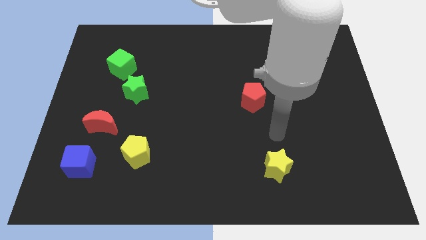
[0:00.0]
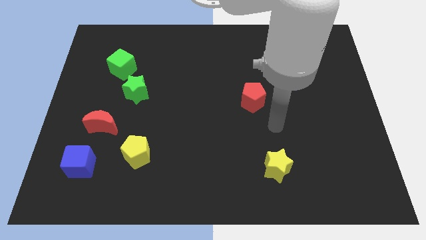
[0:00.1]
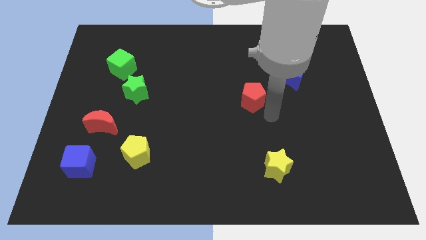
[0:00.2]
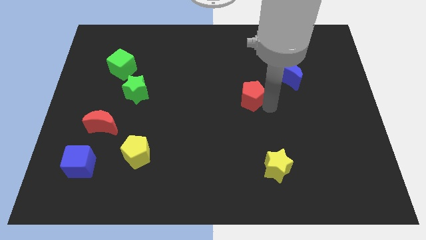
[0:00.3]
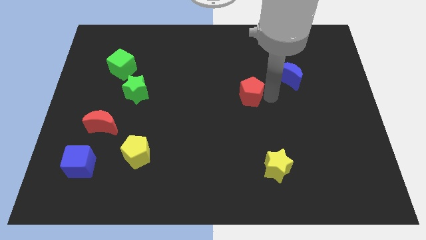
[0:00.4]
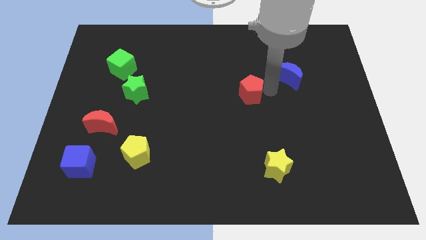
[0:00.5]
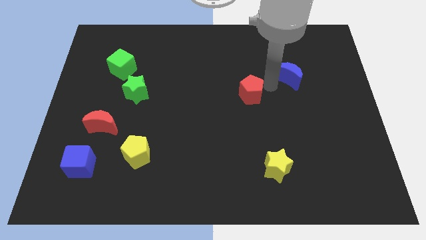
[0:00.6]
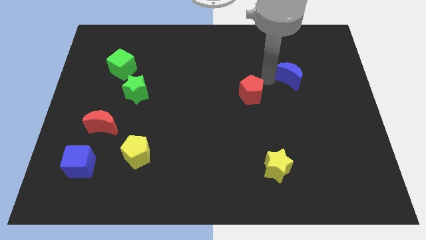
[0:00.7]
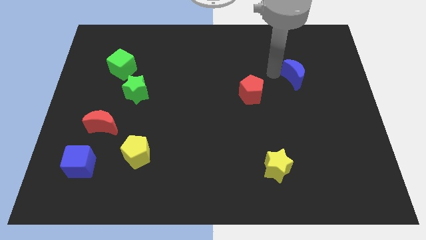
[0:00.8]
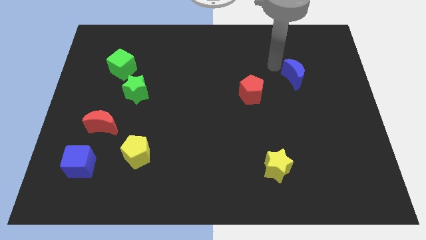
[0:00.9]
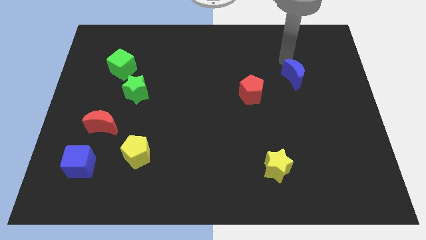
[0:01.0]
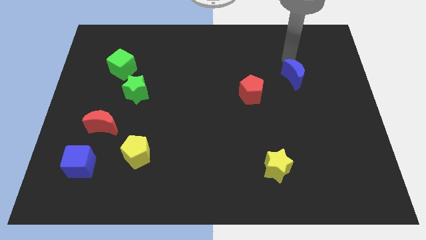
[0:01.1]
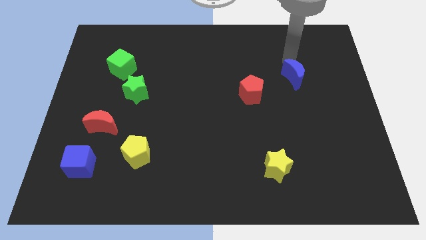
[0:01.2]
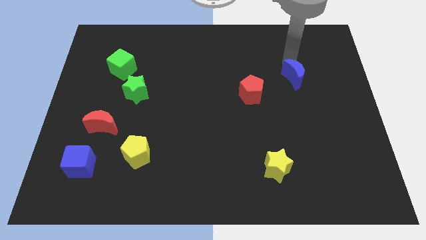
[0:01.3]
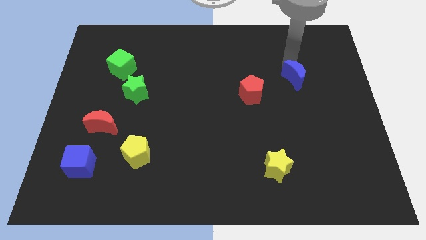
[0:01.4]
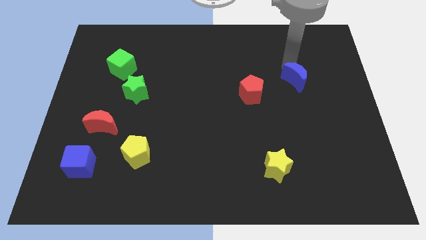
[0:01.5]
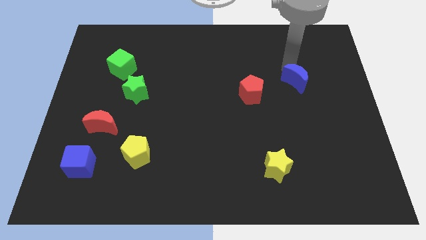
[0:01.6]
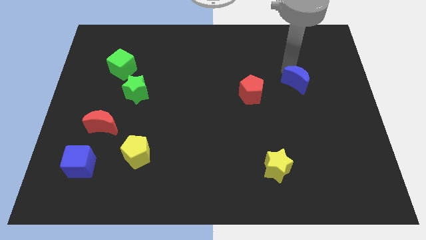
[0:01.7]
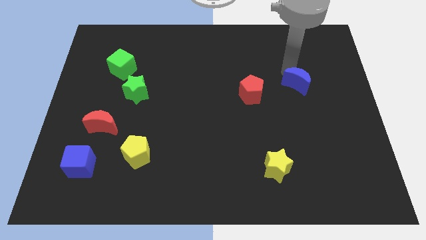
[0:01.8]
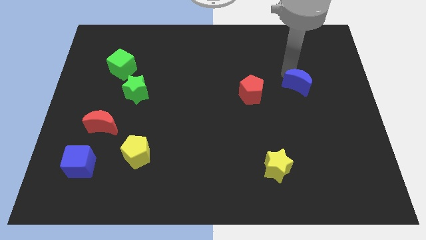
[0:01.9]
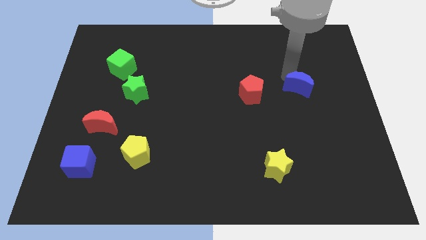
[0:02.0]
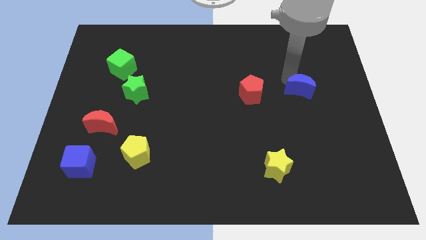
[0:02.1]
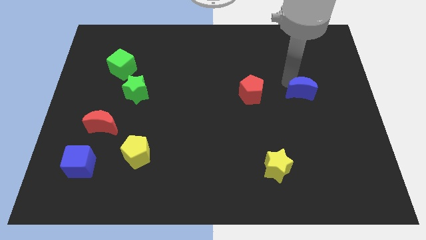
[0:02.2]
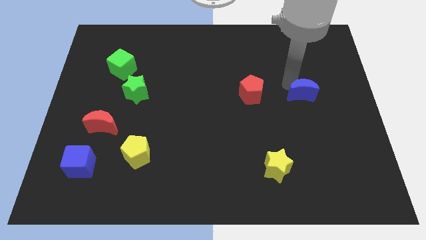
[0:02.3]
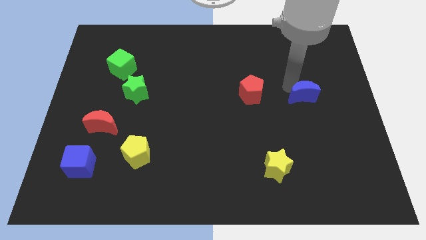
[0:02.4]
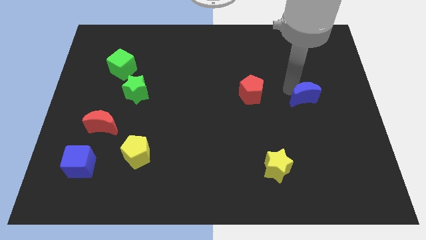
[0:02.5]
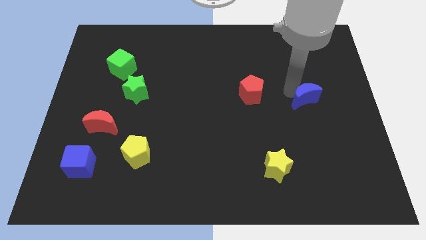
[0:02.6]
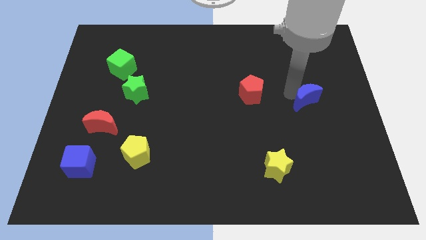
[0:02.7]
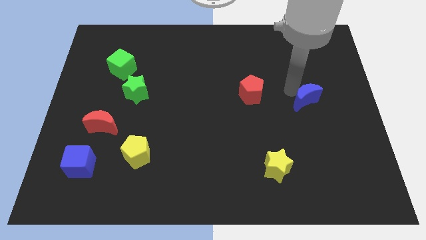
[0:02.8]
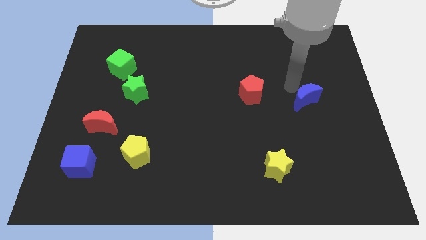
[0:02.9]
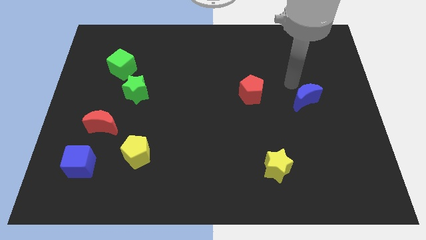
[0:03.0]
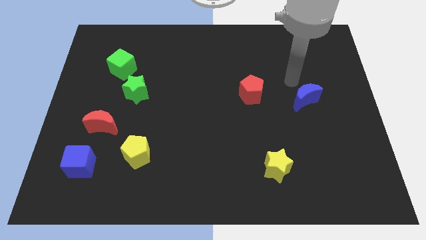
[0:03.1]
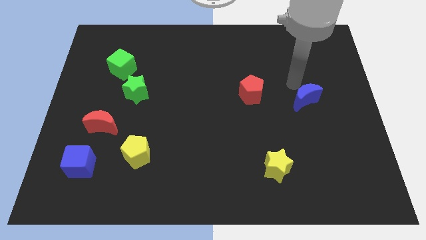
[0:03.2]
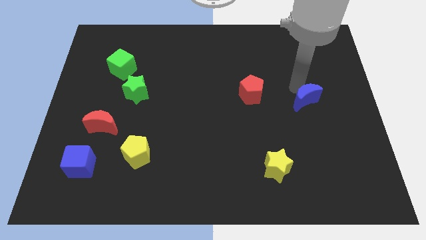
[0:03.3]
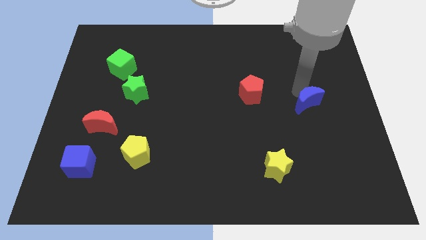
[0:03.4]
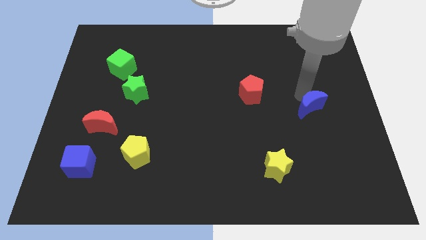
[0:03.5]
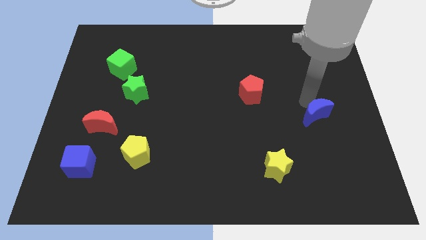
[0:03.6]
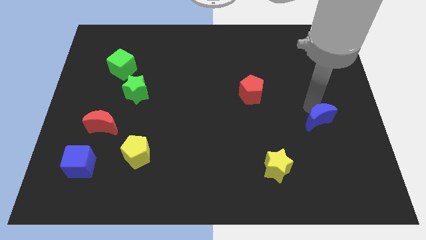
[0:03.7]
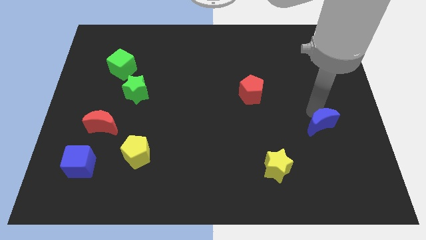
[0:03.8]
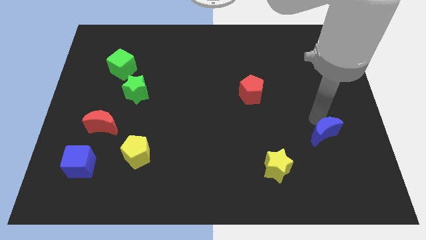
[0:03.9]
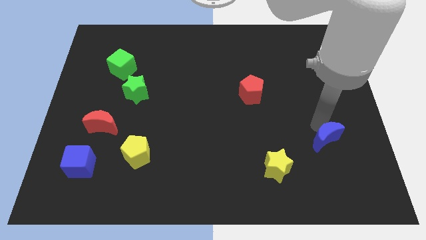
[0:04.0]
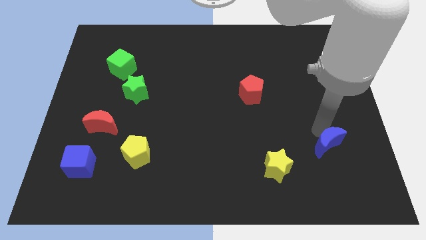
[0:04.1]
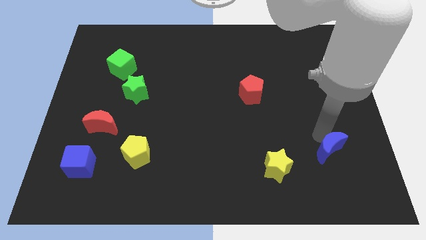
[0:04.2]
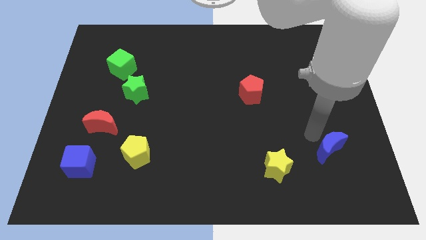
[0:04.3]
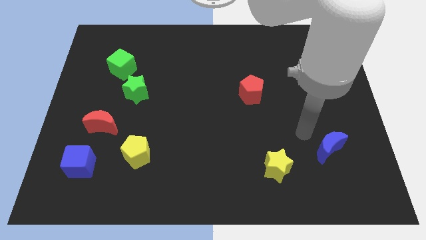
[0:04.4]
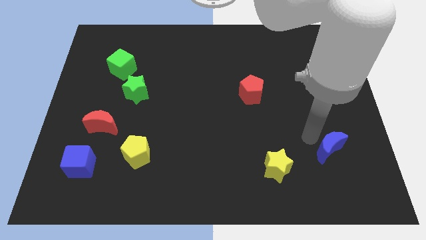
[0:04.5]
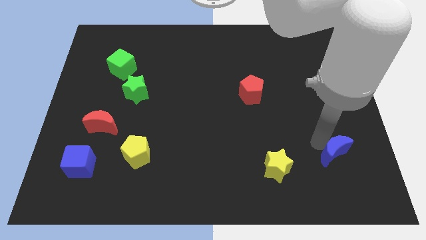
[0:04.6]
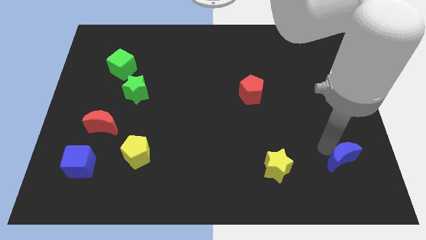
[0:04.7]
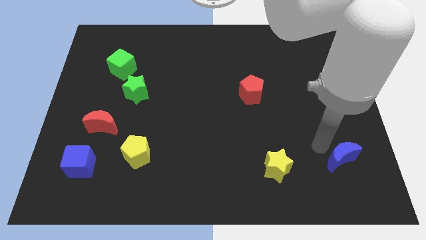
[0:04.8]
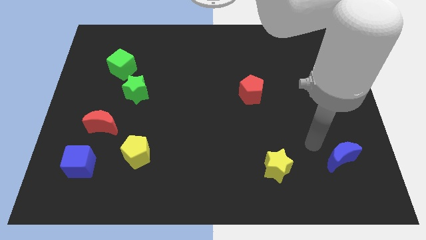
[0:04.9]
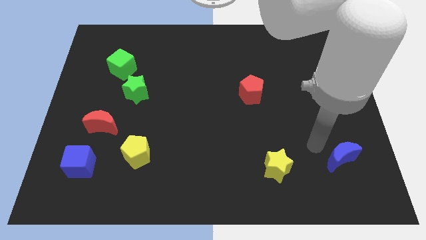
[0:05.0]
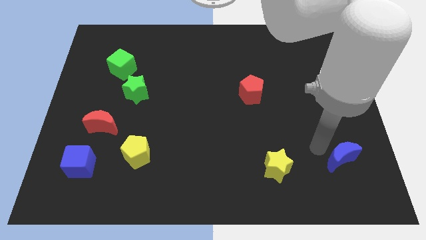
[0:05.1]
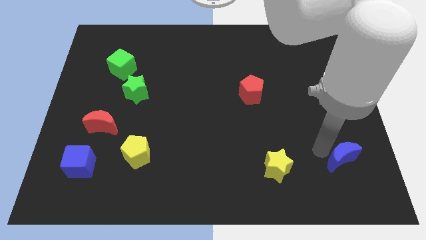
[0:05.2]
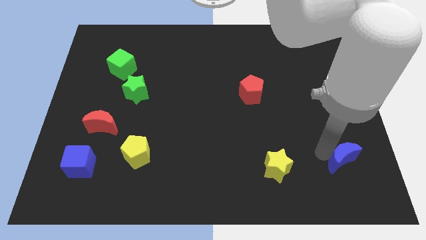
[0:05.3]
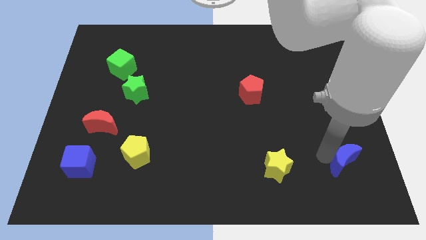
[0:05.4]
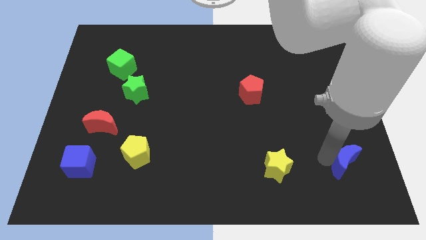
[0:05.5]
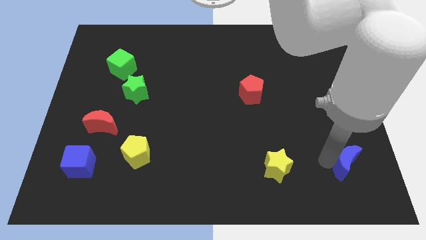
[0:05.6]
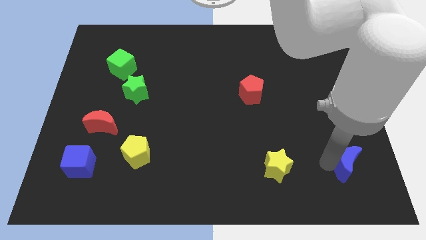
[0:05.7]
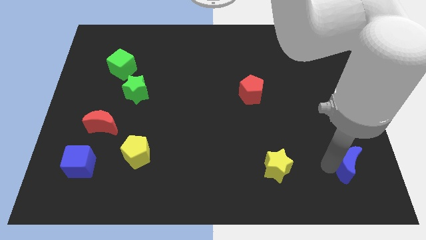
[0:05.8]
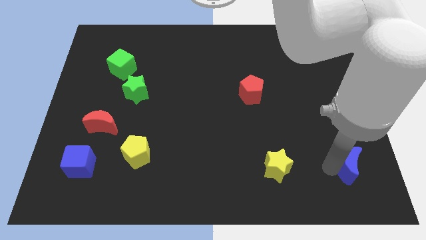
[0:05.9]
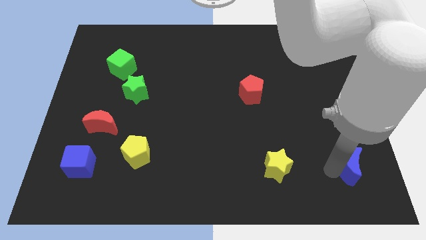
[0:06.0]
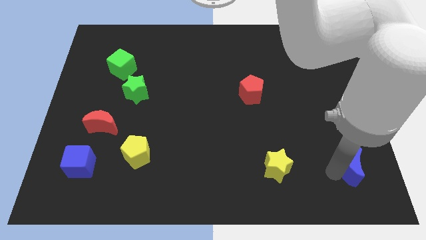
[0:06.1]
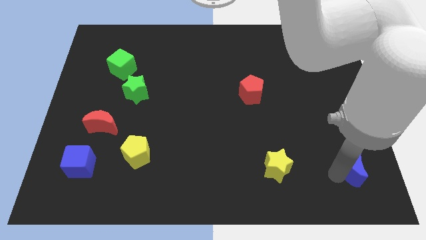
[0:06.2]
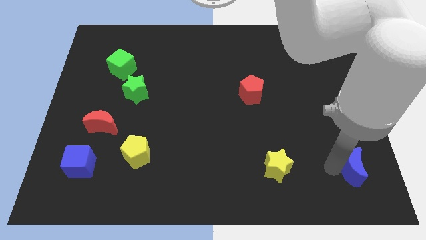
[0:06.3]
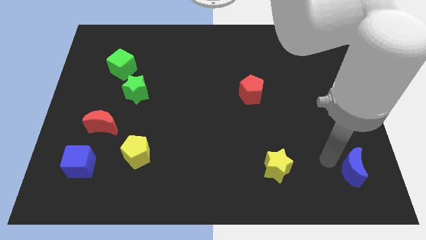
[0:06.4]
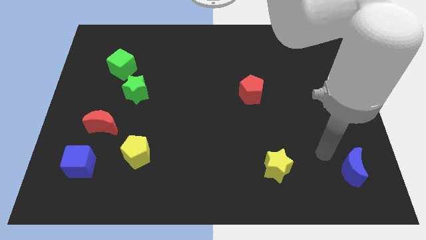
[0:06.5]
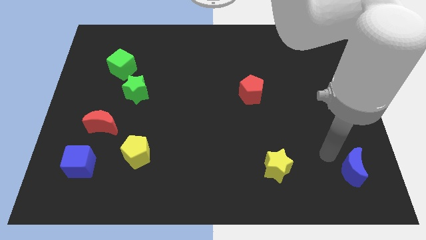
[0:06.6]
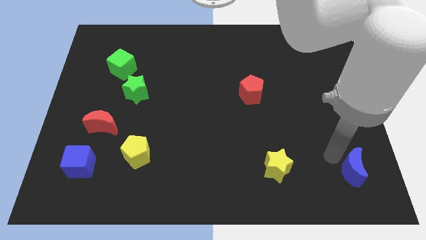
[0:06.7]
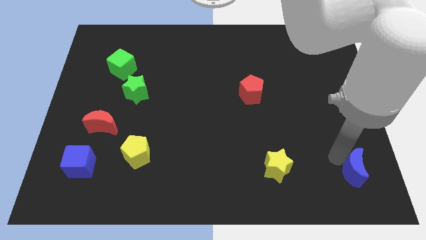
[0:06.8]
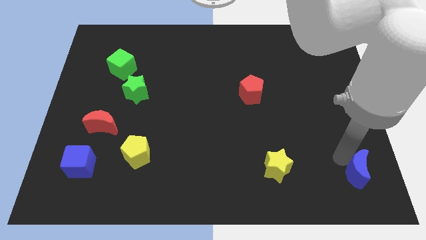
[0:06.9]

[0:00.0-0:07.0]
push the blue moon to the bottom right
